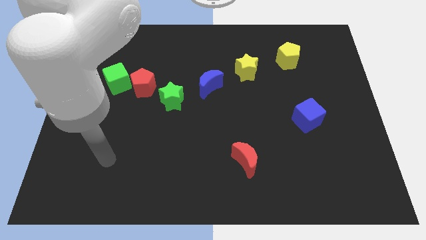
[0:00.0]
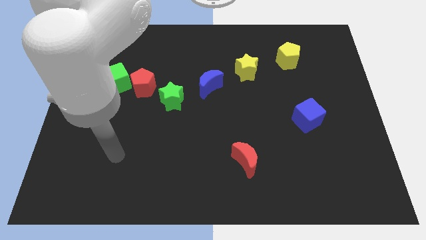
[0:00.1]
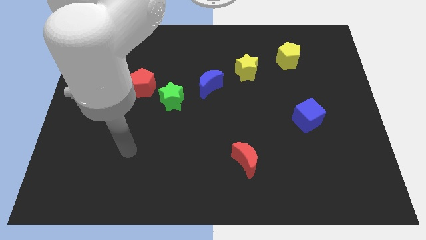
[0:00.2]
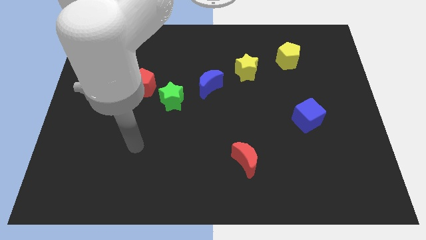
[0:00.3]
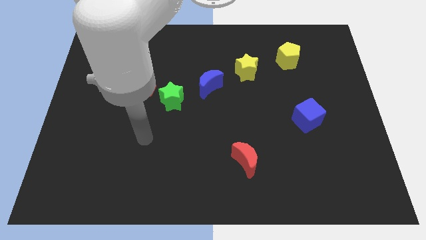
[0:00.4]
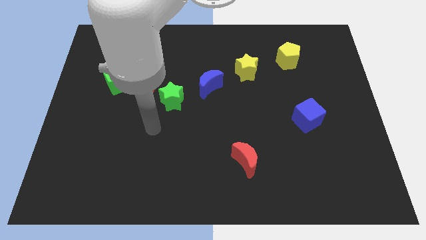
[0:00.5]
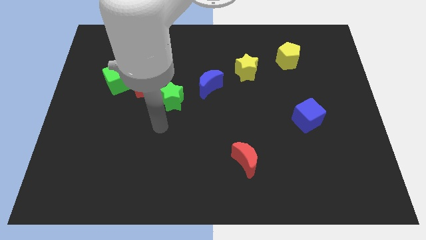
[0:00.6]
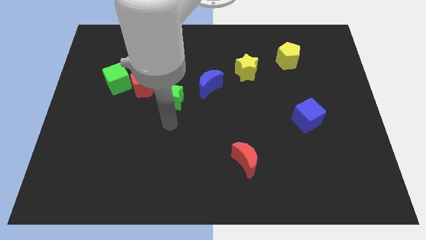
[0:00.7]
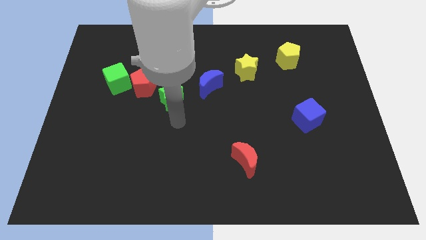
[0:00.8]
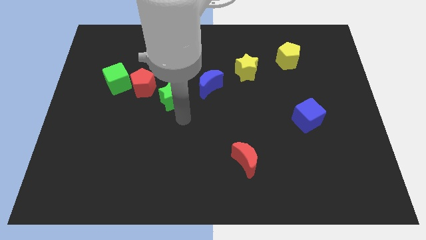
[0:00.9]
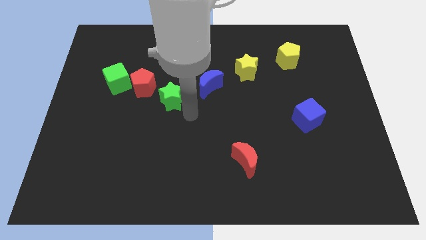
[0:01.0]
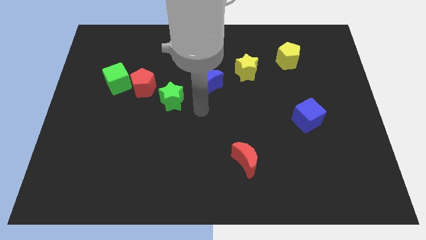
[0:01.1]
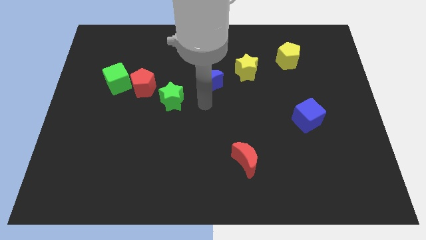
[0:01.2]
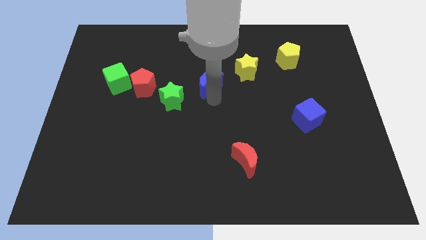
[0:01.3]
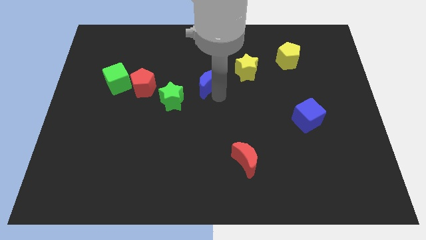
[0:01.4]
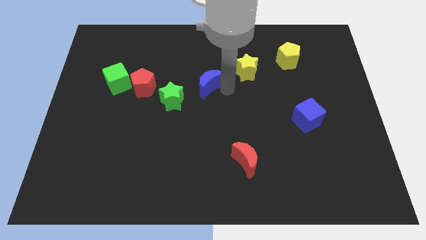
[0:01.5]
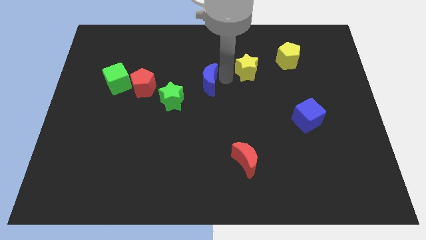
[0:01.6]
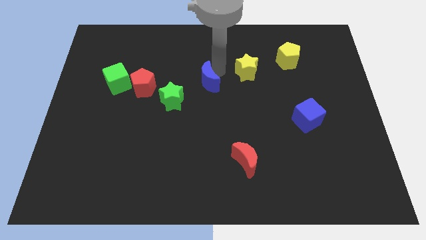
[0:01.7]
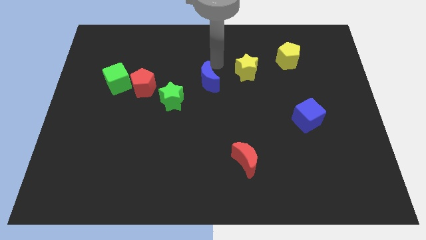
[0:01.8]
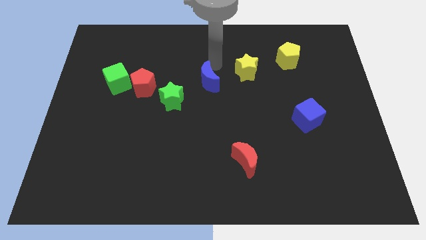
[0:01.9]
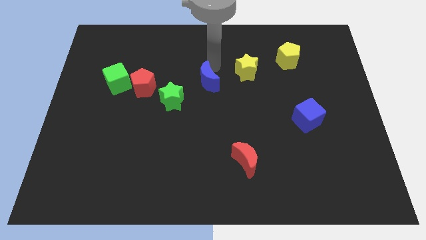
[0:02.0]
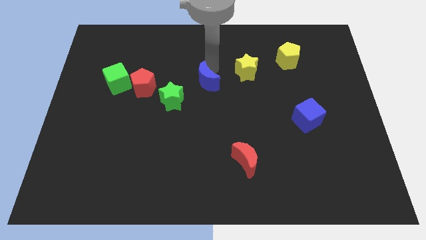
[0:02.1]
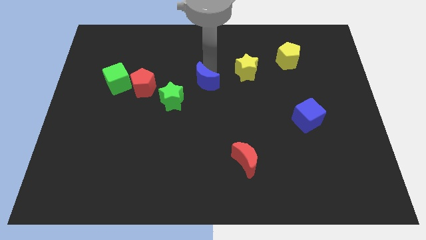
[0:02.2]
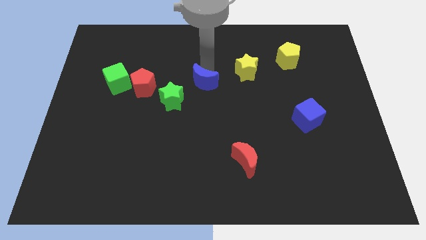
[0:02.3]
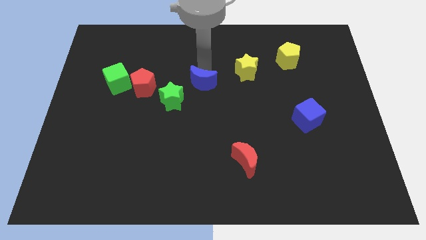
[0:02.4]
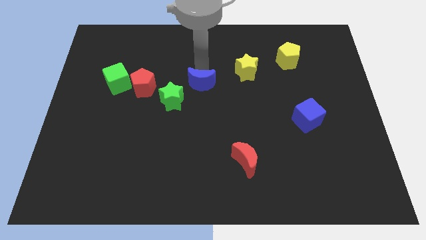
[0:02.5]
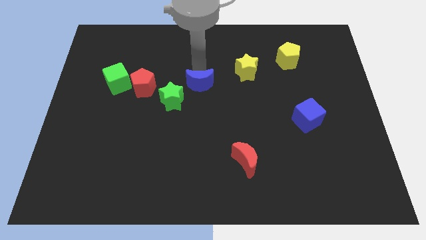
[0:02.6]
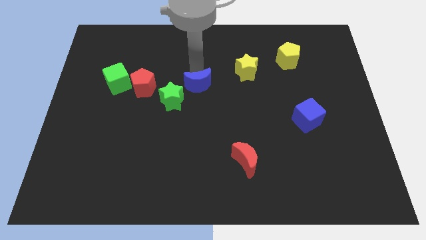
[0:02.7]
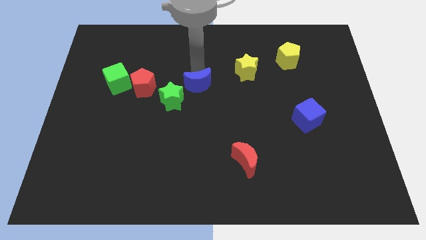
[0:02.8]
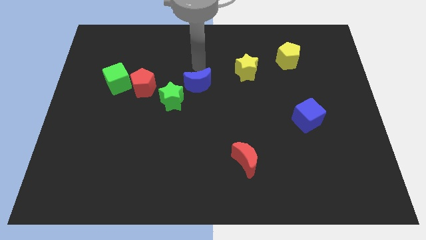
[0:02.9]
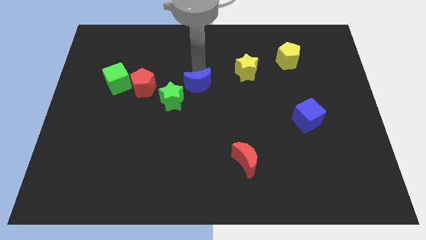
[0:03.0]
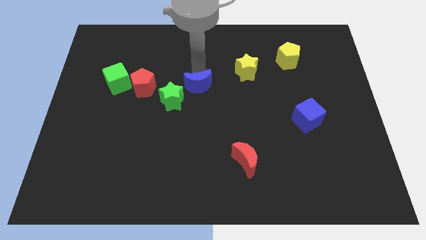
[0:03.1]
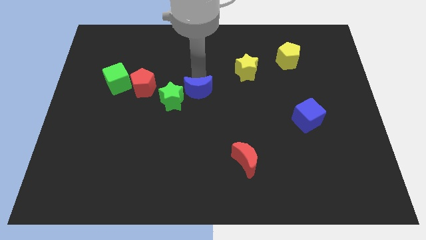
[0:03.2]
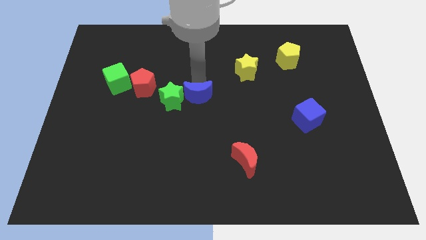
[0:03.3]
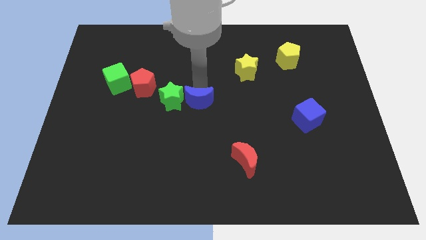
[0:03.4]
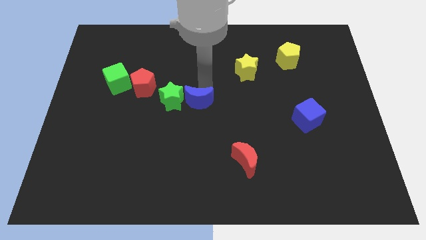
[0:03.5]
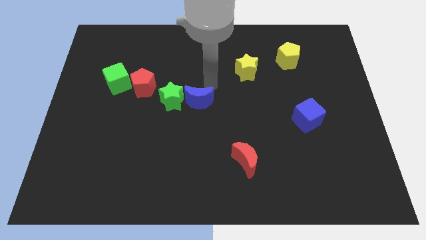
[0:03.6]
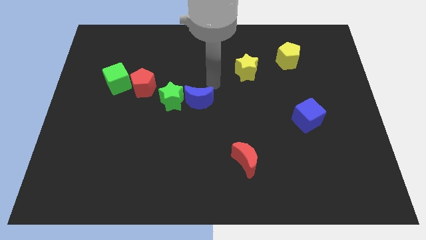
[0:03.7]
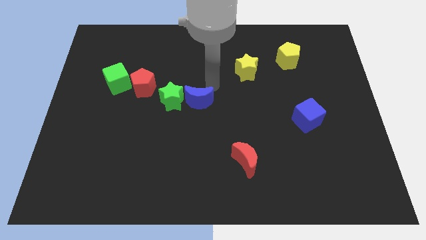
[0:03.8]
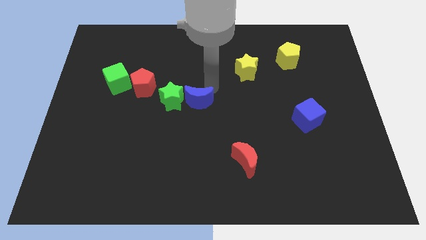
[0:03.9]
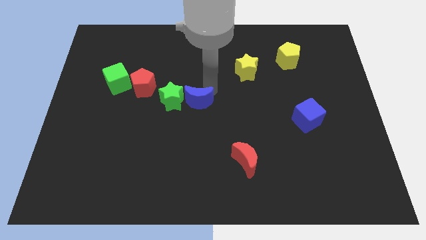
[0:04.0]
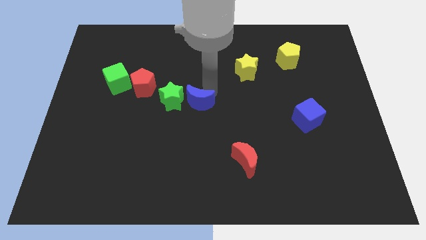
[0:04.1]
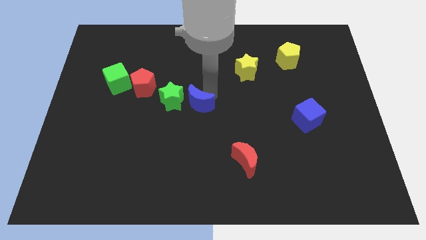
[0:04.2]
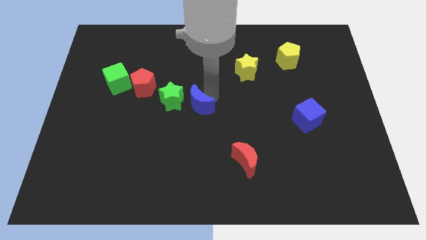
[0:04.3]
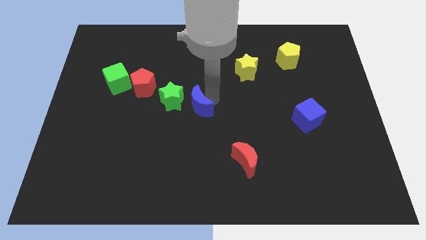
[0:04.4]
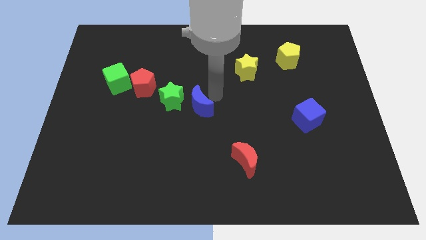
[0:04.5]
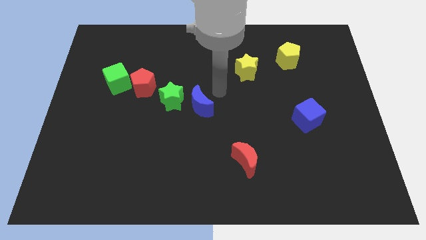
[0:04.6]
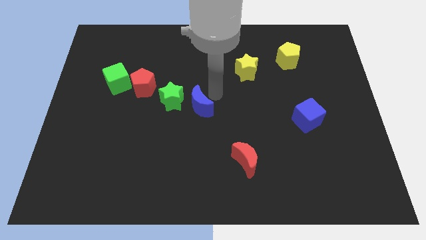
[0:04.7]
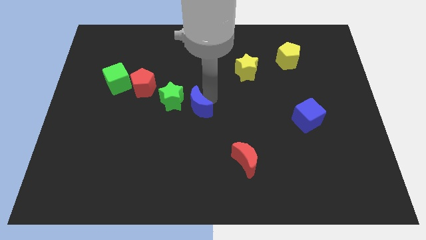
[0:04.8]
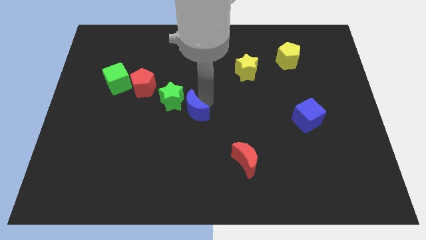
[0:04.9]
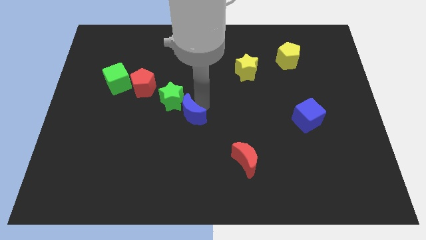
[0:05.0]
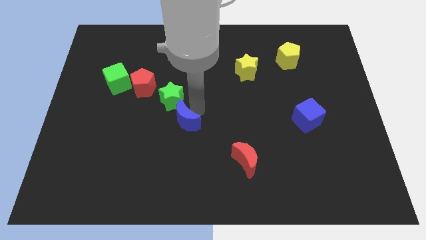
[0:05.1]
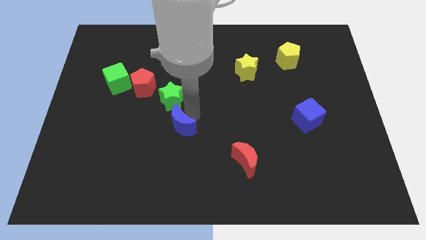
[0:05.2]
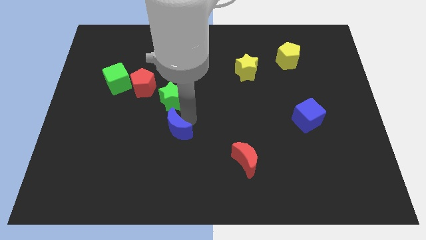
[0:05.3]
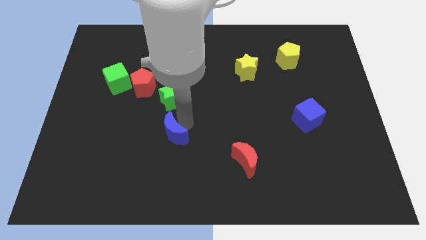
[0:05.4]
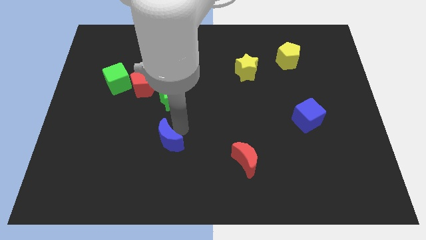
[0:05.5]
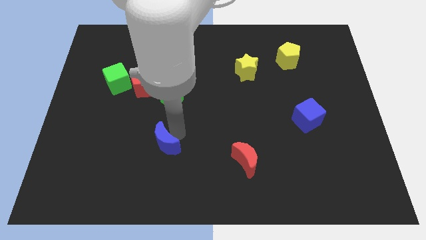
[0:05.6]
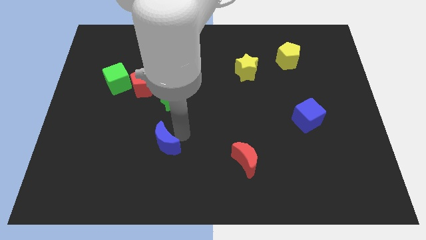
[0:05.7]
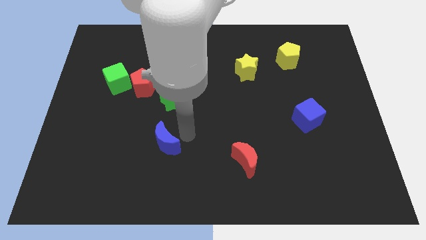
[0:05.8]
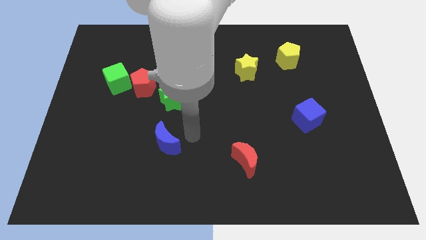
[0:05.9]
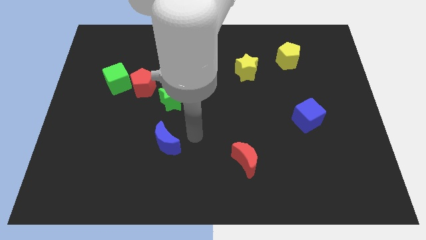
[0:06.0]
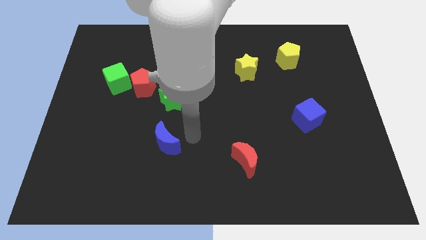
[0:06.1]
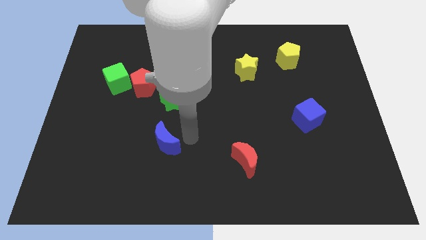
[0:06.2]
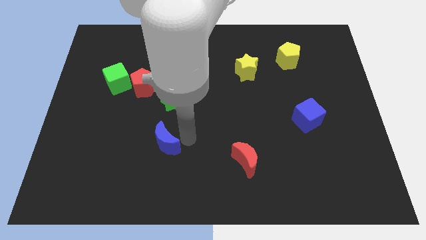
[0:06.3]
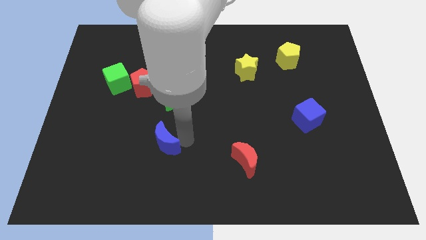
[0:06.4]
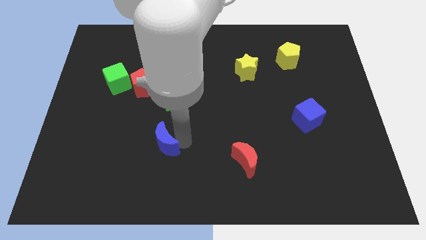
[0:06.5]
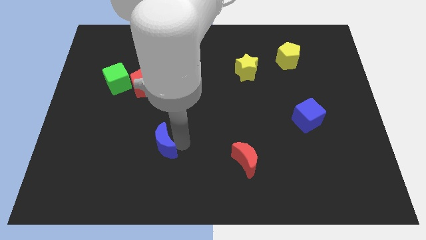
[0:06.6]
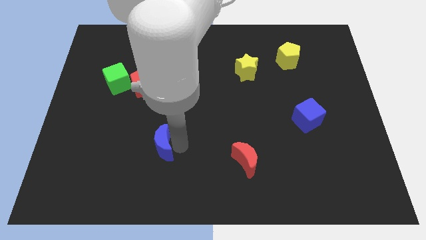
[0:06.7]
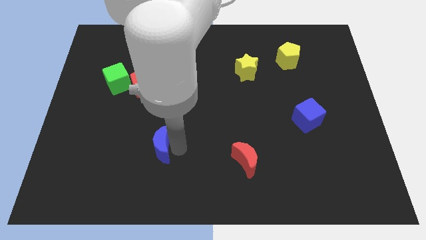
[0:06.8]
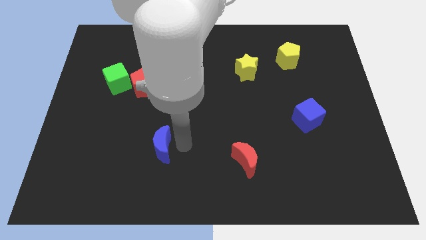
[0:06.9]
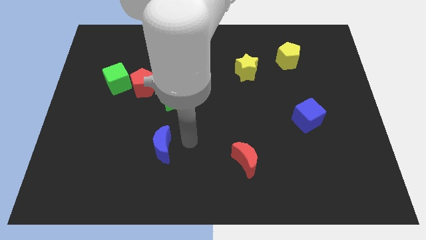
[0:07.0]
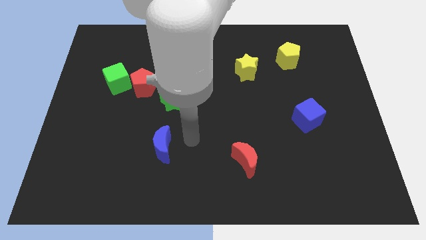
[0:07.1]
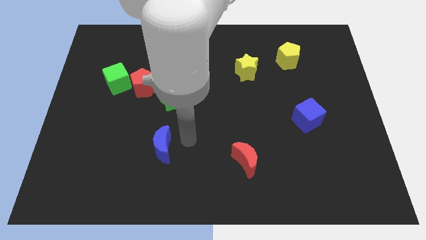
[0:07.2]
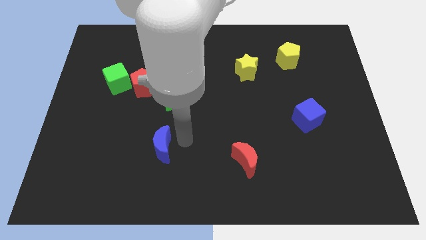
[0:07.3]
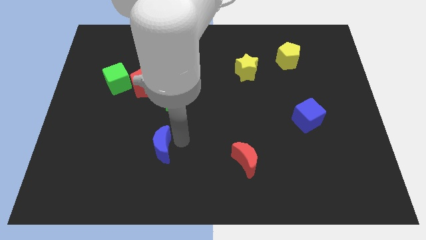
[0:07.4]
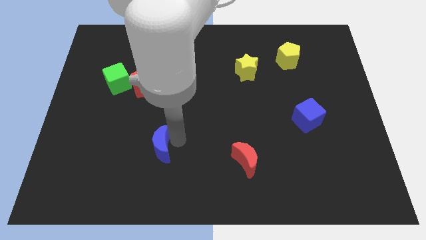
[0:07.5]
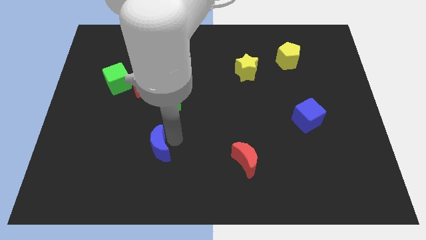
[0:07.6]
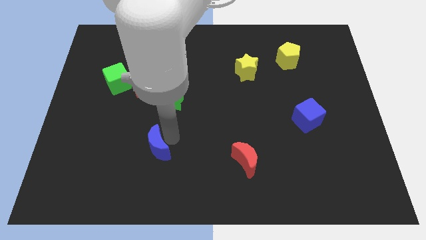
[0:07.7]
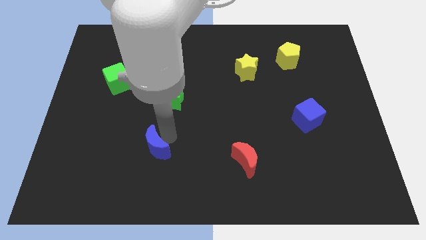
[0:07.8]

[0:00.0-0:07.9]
move the blue moon downwards and then left

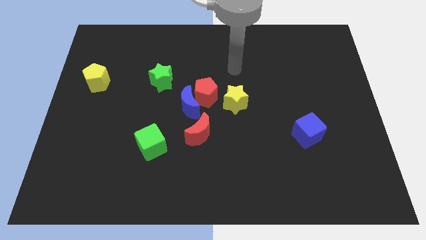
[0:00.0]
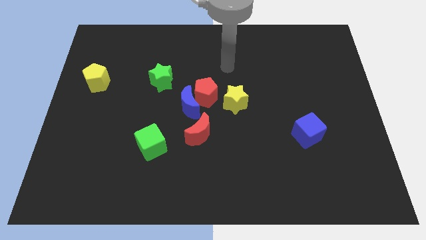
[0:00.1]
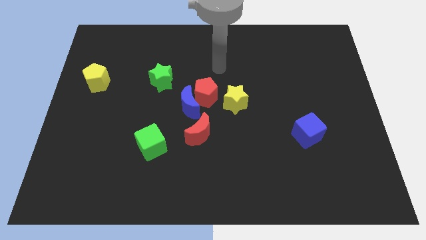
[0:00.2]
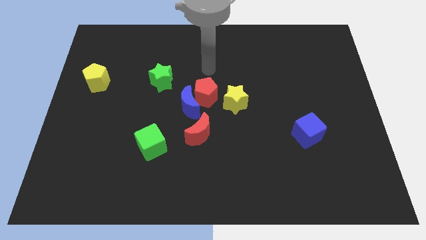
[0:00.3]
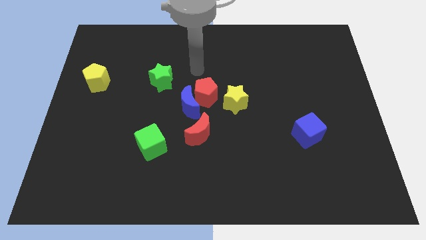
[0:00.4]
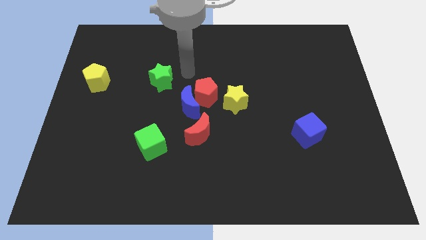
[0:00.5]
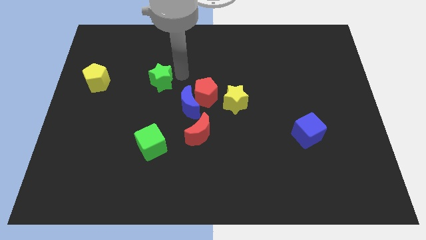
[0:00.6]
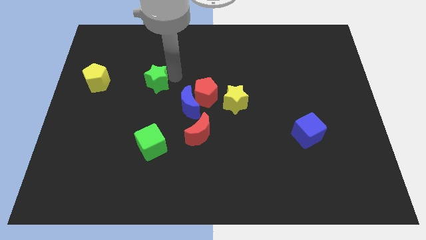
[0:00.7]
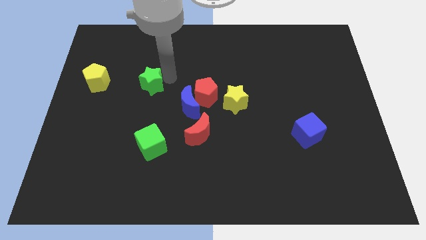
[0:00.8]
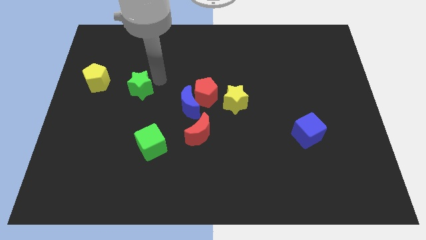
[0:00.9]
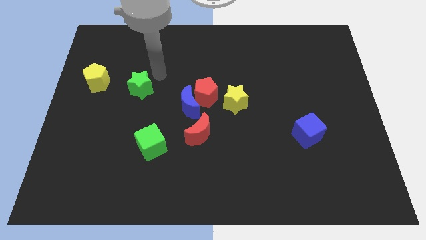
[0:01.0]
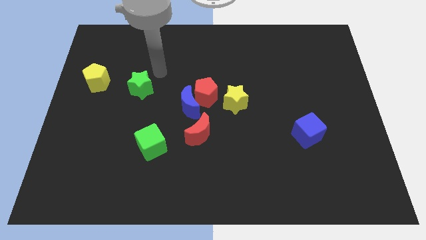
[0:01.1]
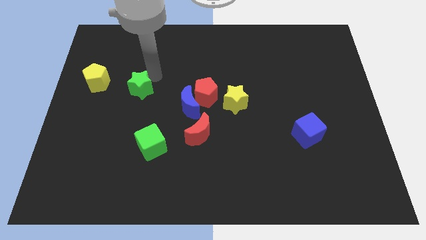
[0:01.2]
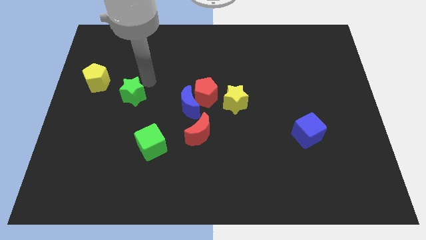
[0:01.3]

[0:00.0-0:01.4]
slide the green star down and then to the left somewhat
